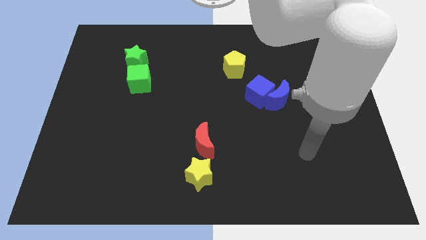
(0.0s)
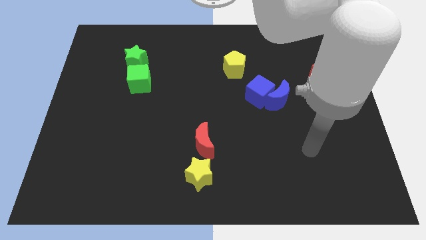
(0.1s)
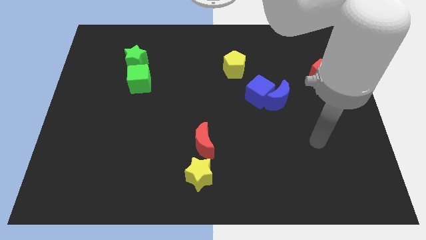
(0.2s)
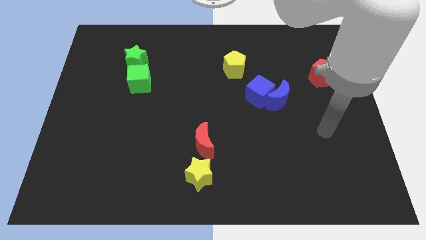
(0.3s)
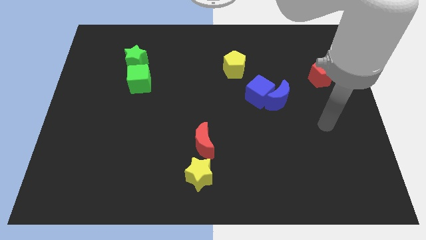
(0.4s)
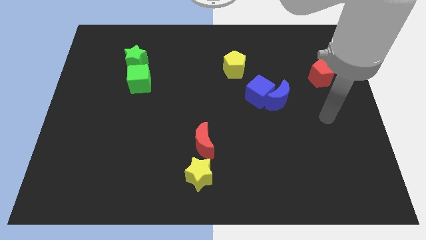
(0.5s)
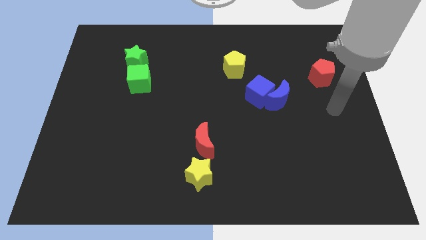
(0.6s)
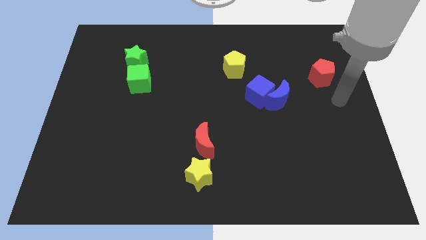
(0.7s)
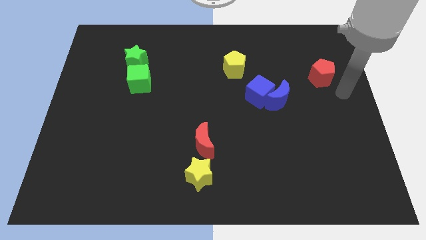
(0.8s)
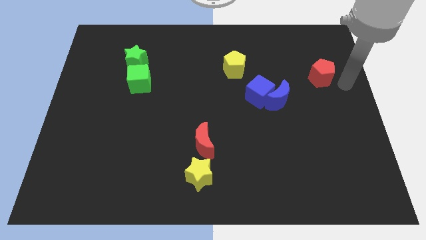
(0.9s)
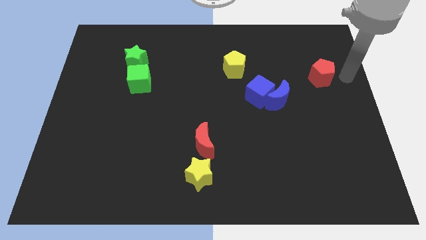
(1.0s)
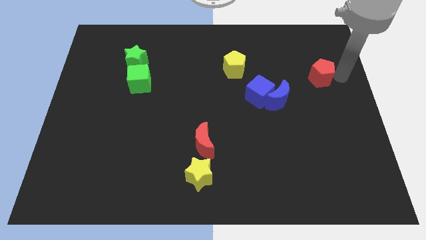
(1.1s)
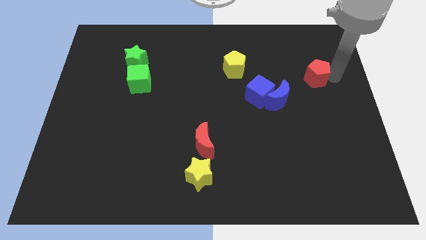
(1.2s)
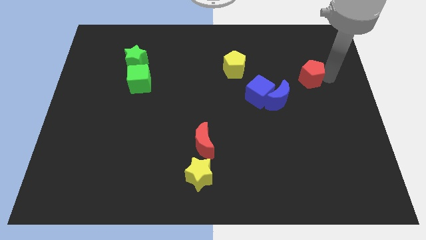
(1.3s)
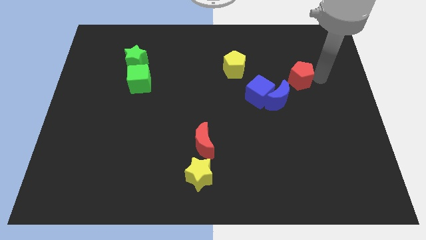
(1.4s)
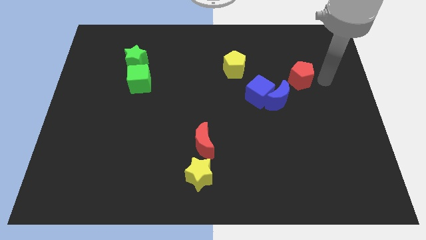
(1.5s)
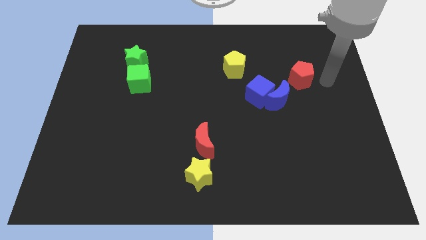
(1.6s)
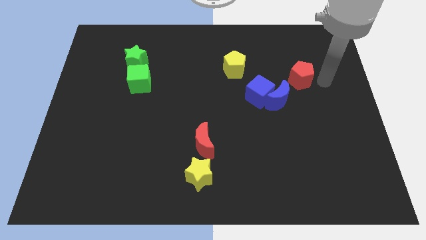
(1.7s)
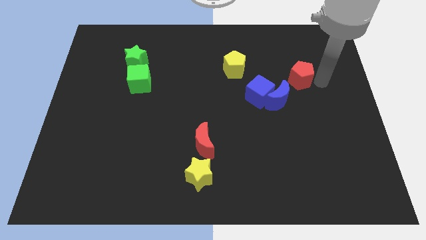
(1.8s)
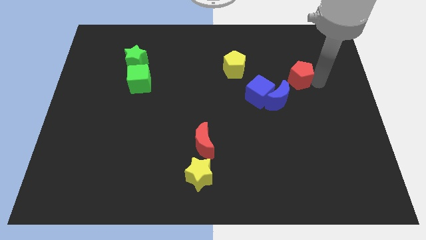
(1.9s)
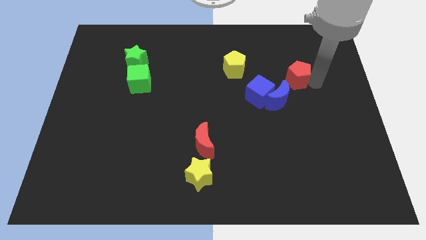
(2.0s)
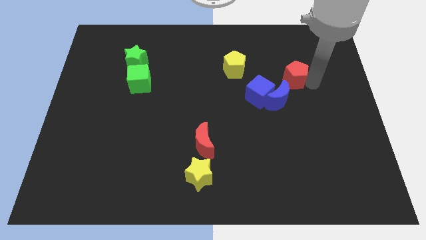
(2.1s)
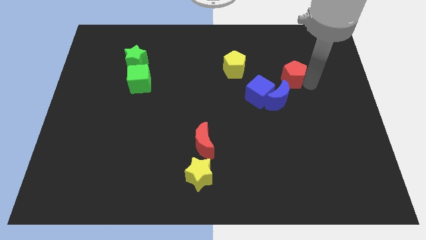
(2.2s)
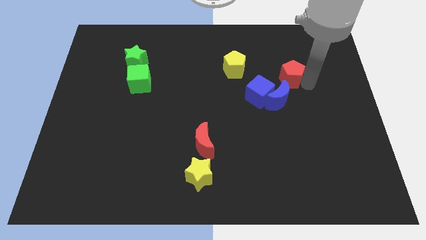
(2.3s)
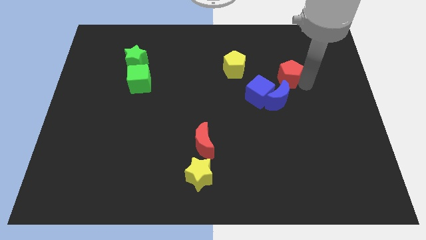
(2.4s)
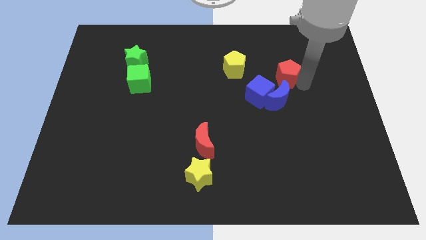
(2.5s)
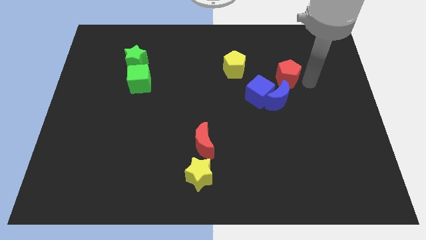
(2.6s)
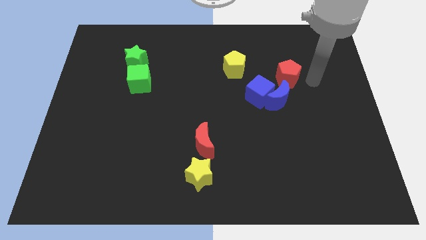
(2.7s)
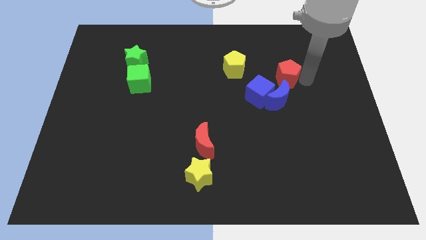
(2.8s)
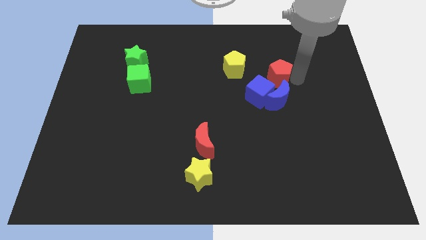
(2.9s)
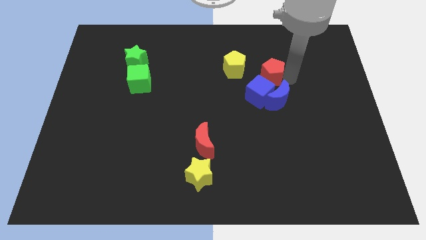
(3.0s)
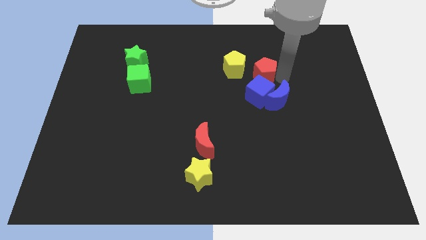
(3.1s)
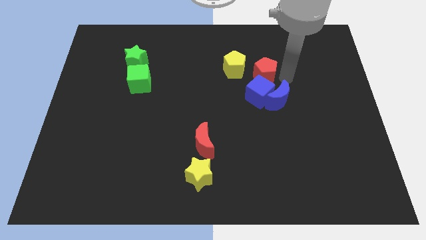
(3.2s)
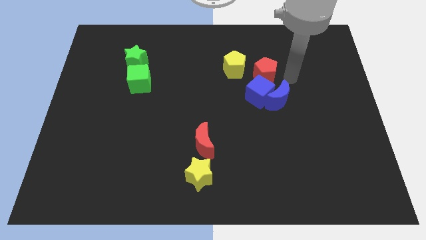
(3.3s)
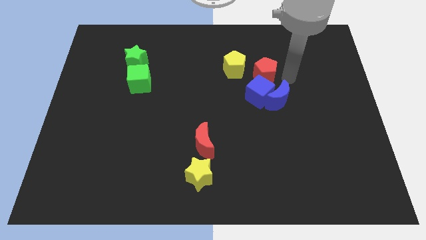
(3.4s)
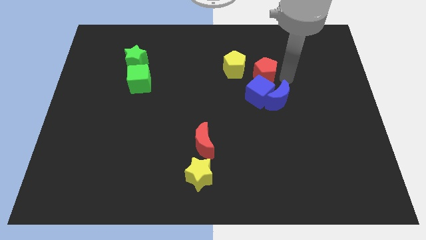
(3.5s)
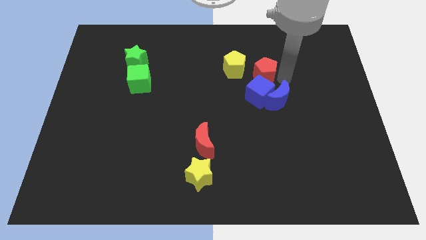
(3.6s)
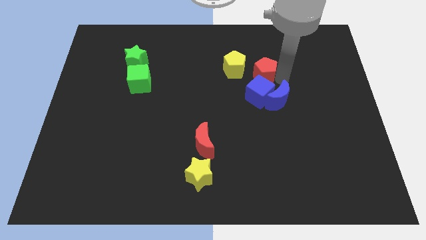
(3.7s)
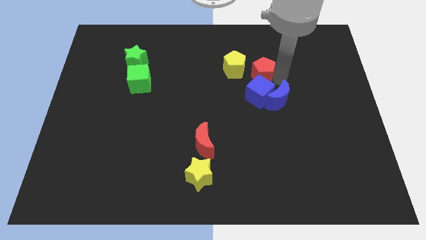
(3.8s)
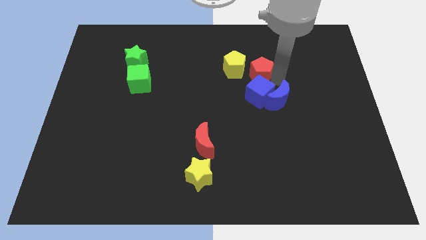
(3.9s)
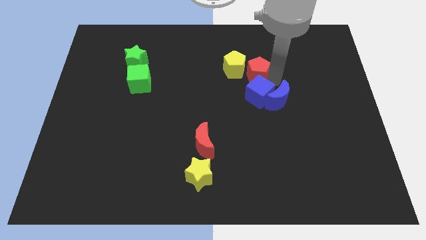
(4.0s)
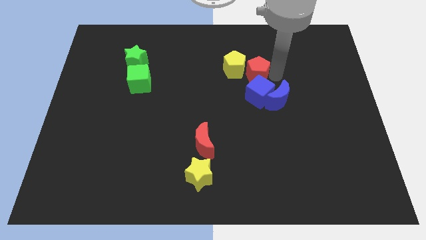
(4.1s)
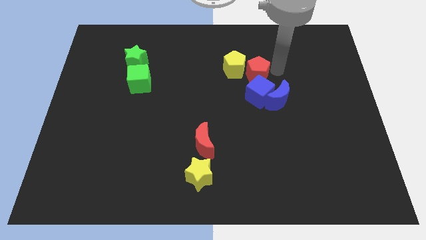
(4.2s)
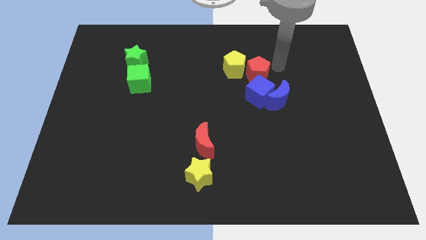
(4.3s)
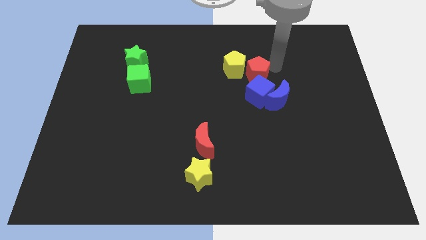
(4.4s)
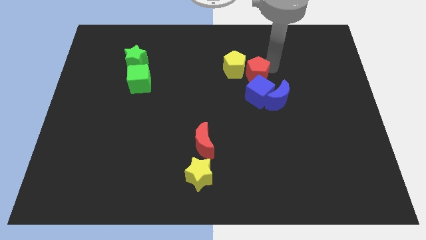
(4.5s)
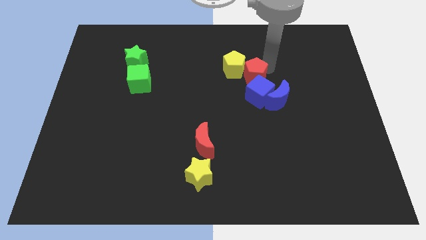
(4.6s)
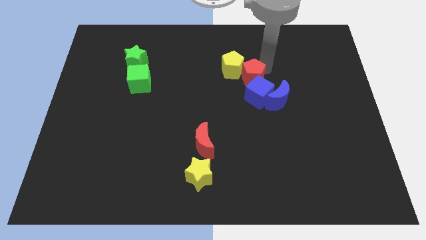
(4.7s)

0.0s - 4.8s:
move the red pentagon to the center of the board

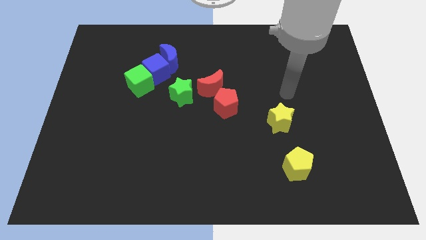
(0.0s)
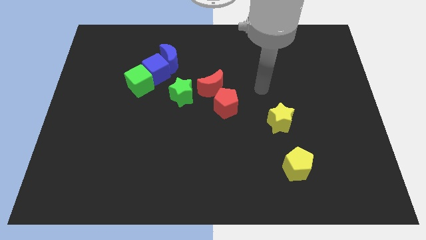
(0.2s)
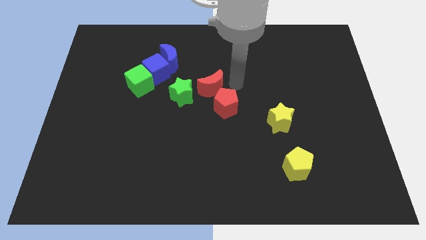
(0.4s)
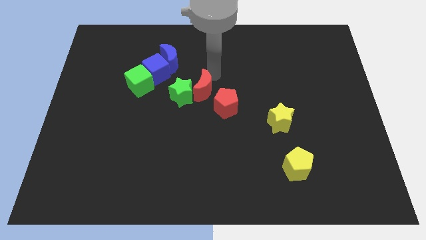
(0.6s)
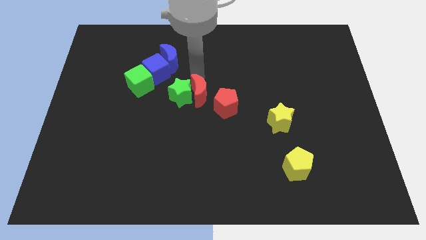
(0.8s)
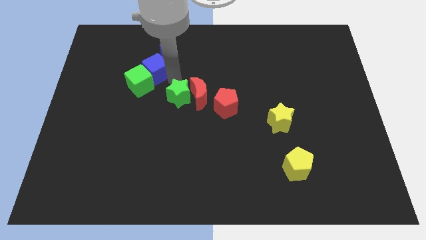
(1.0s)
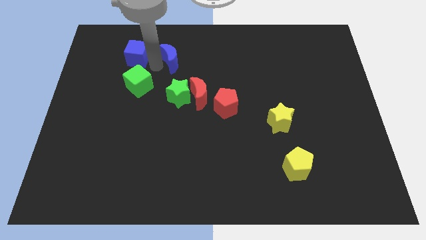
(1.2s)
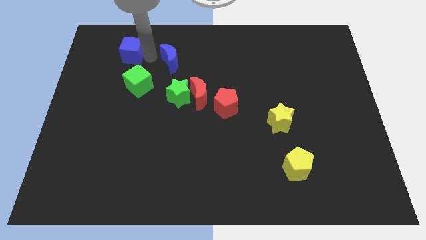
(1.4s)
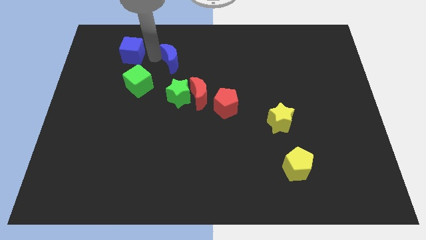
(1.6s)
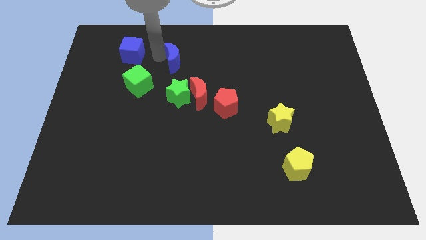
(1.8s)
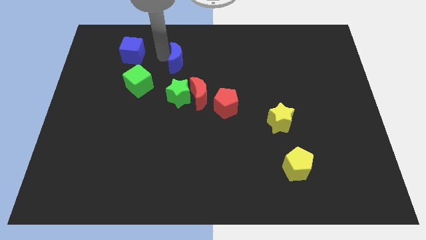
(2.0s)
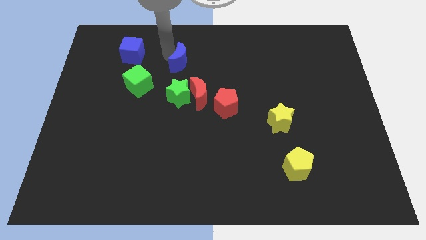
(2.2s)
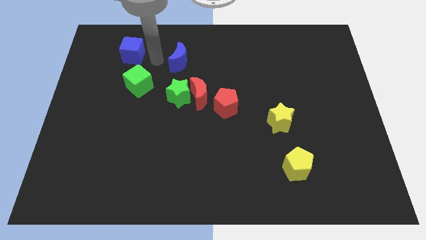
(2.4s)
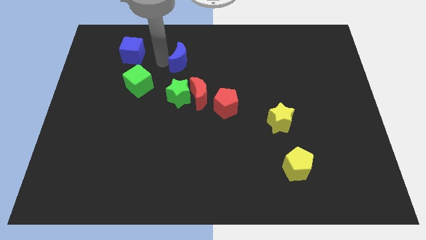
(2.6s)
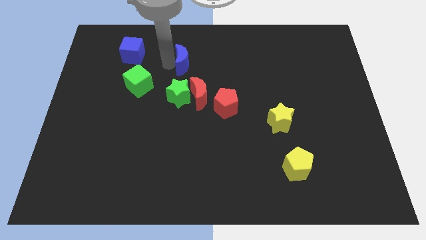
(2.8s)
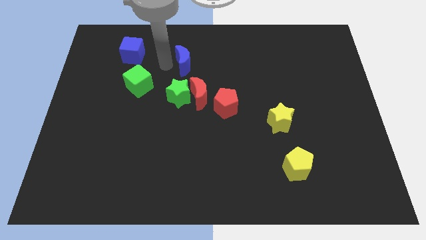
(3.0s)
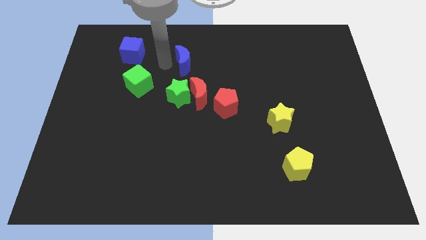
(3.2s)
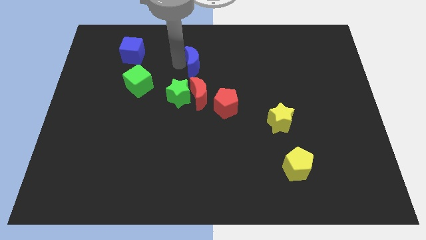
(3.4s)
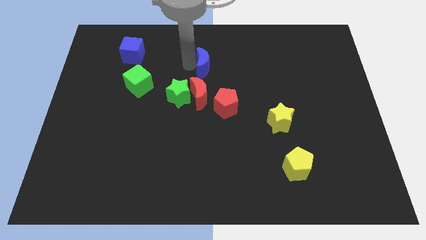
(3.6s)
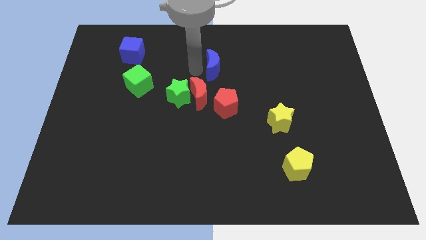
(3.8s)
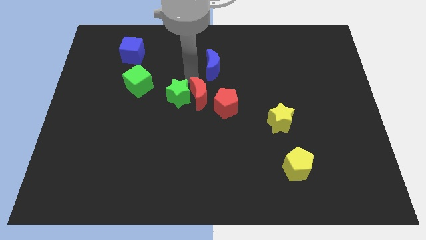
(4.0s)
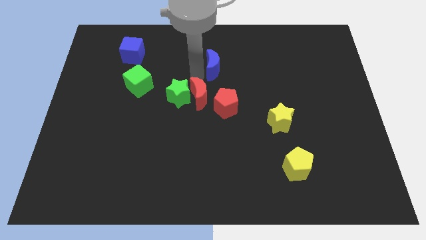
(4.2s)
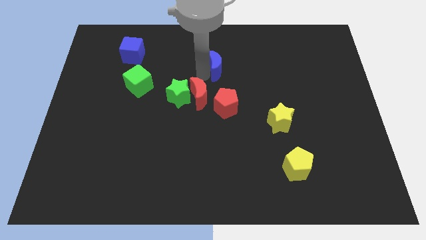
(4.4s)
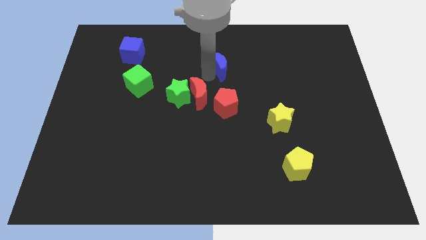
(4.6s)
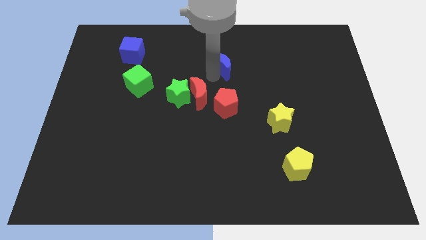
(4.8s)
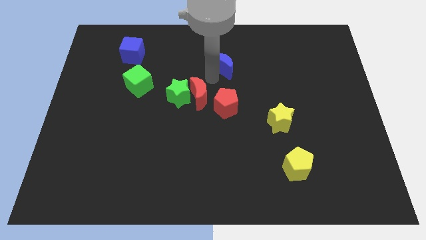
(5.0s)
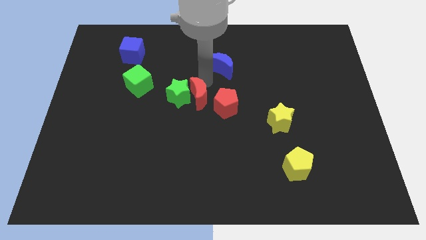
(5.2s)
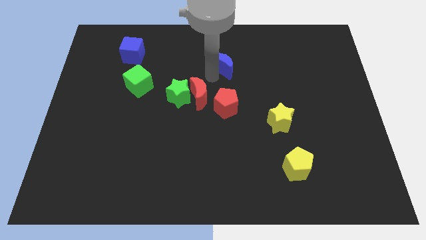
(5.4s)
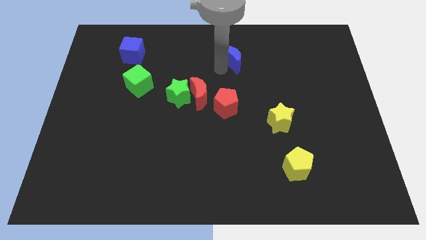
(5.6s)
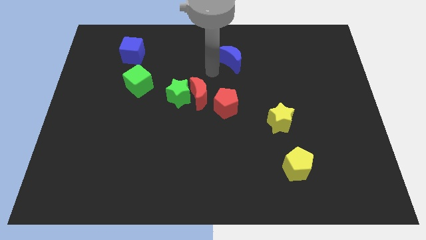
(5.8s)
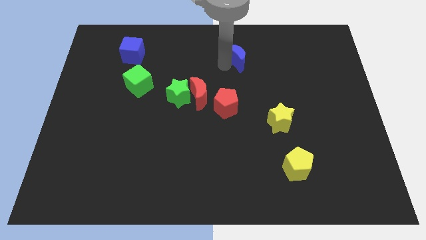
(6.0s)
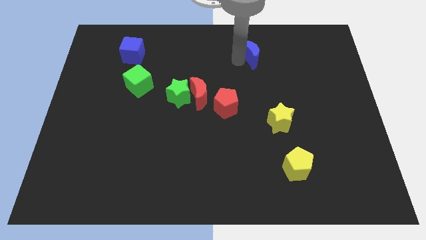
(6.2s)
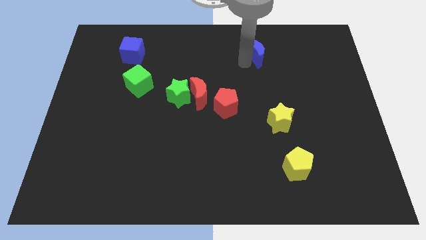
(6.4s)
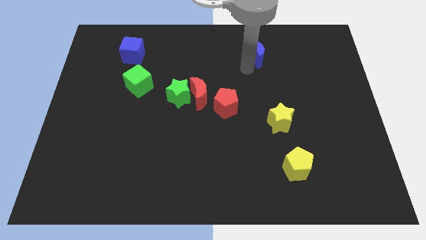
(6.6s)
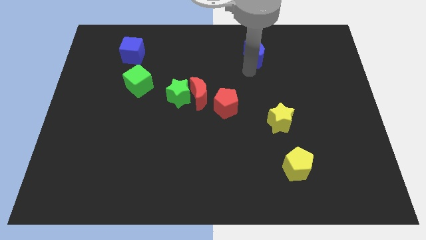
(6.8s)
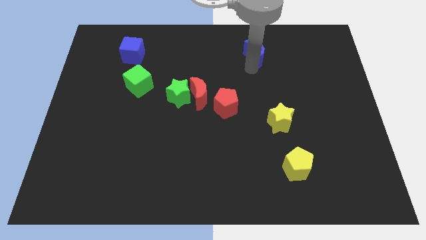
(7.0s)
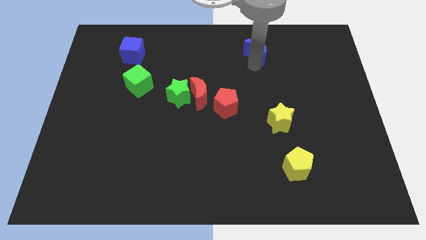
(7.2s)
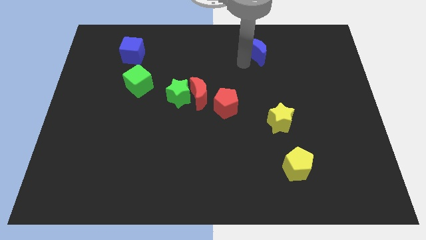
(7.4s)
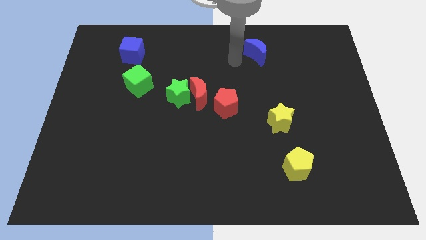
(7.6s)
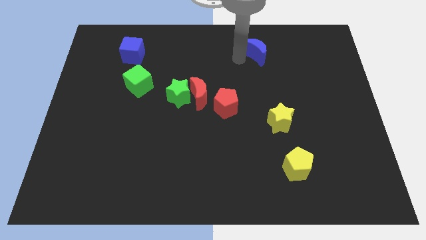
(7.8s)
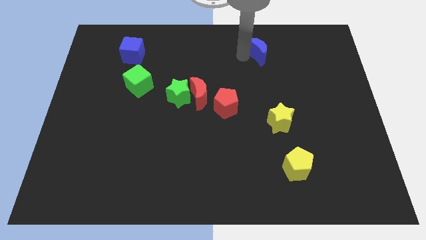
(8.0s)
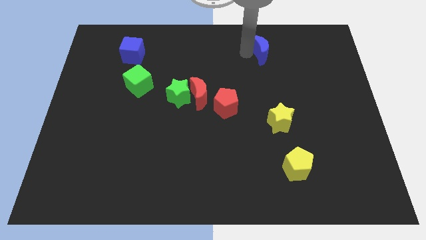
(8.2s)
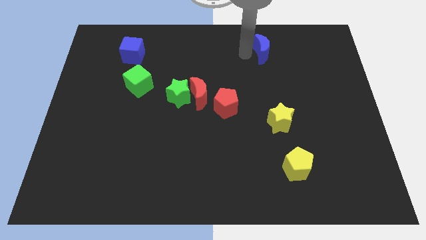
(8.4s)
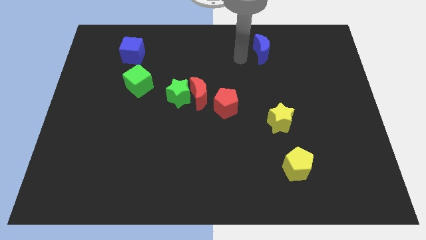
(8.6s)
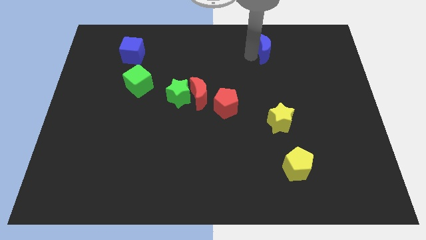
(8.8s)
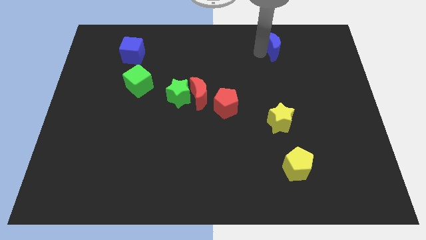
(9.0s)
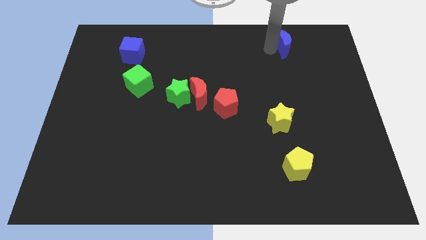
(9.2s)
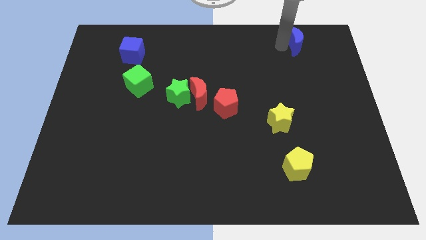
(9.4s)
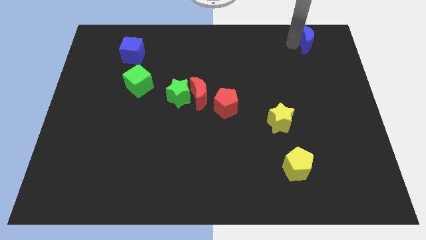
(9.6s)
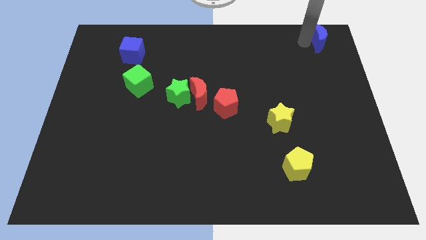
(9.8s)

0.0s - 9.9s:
push the blue moon to the upper right corner
